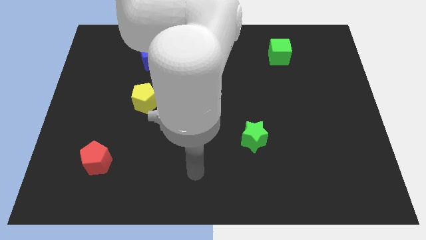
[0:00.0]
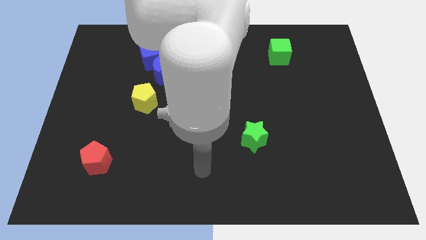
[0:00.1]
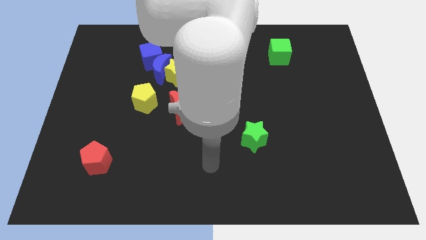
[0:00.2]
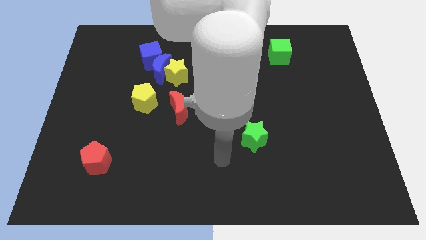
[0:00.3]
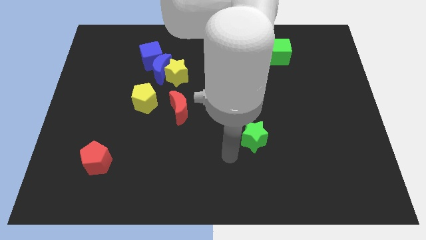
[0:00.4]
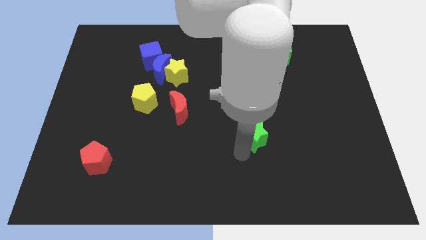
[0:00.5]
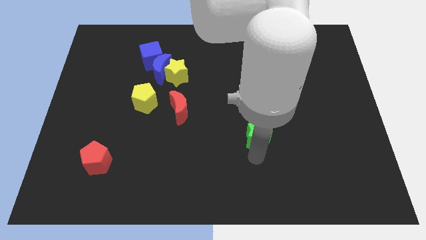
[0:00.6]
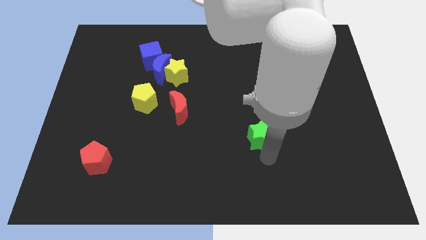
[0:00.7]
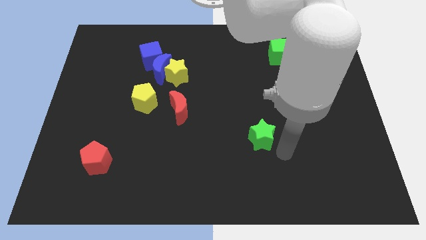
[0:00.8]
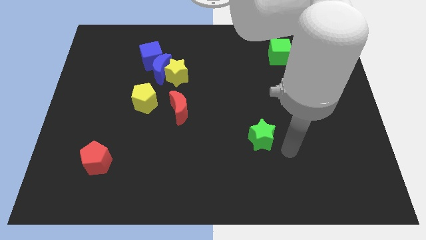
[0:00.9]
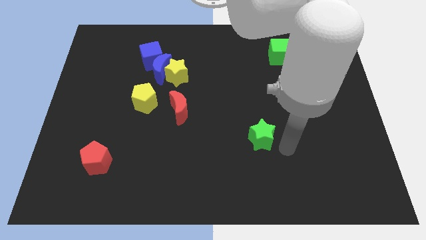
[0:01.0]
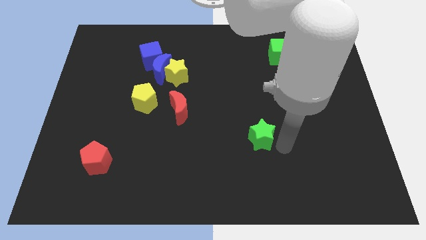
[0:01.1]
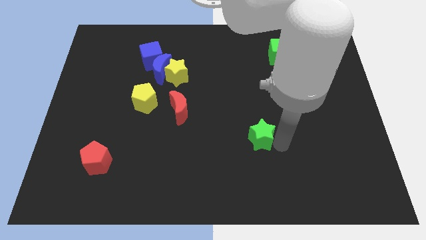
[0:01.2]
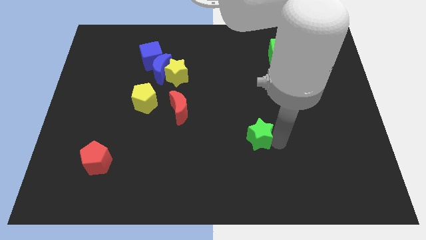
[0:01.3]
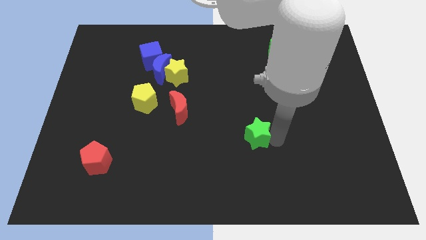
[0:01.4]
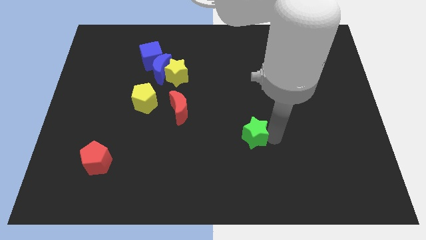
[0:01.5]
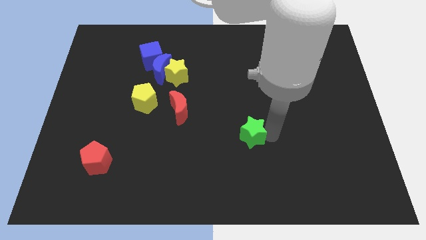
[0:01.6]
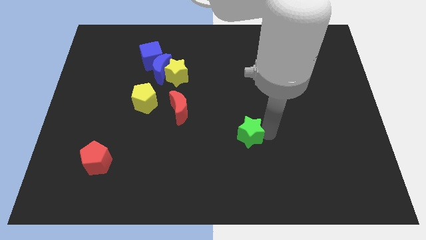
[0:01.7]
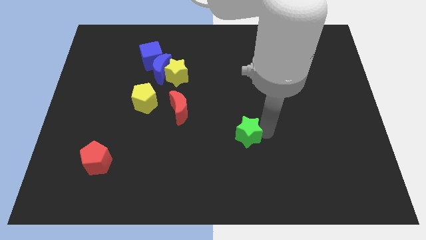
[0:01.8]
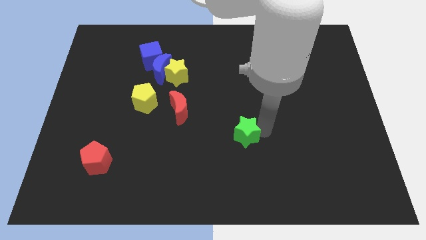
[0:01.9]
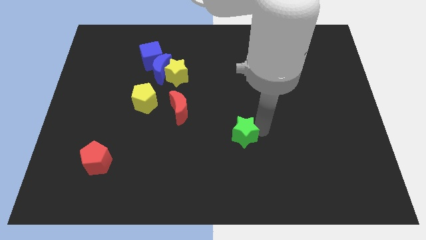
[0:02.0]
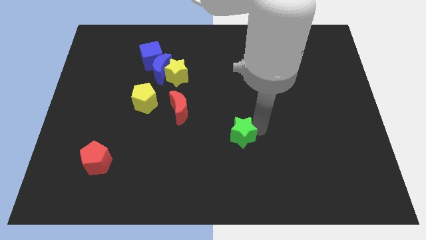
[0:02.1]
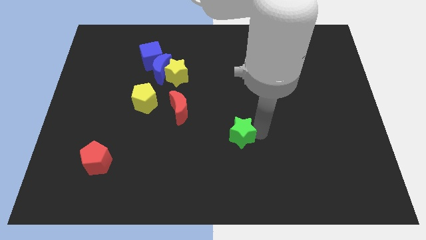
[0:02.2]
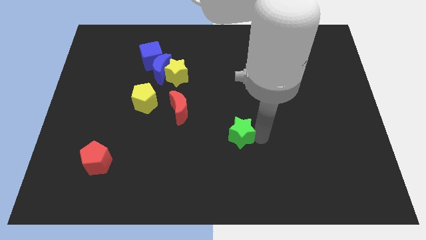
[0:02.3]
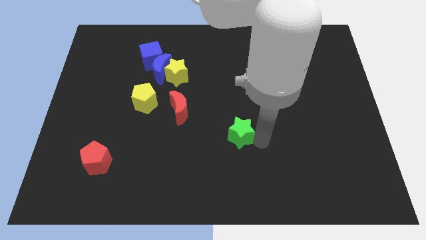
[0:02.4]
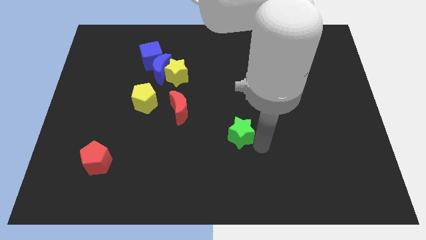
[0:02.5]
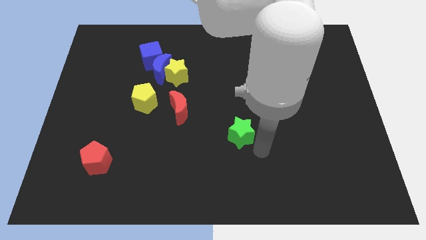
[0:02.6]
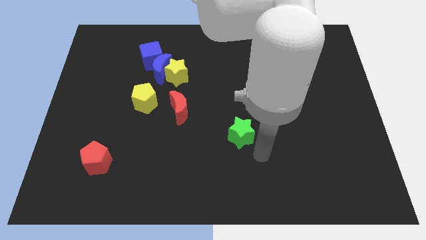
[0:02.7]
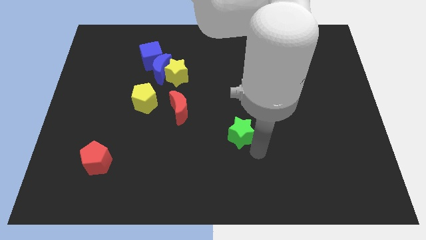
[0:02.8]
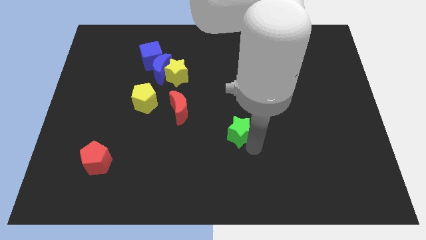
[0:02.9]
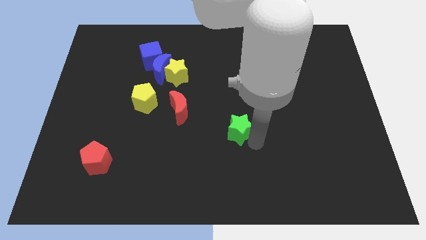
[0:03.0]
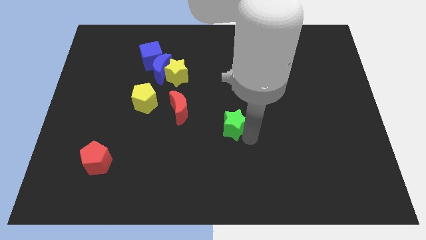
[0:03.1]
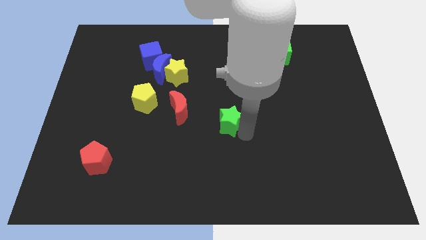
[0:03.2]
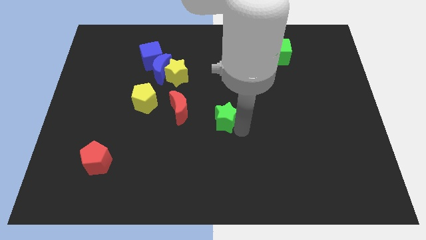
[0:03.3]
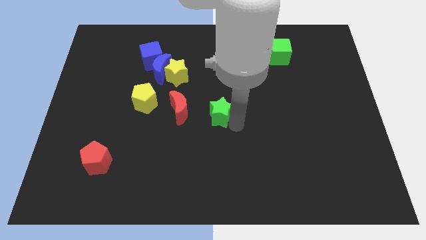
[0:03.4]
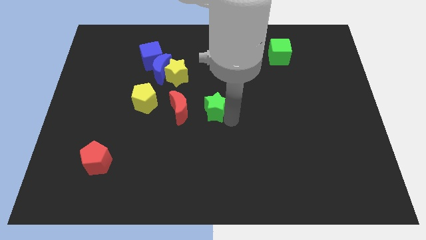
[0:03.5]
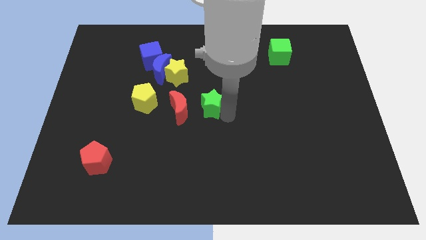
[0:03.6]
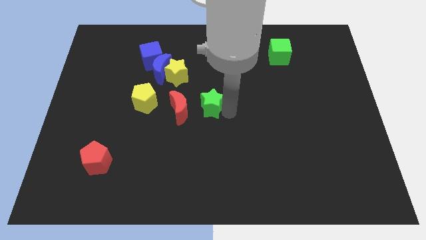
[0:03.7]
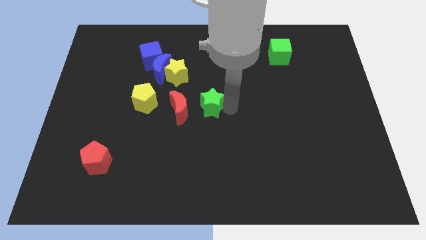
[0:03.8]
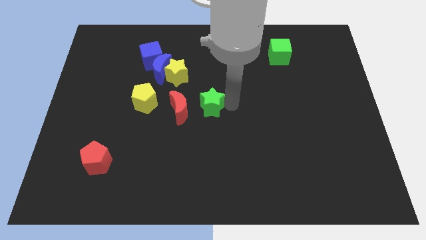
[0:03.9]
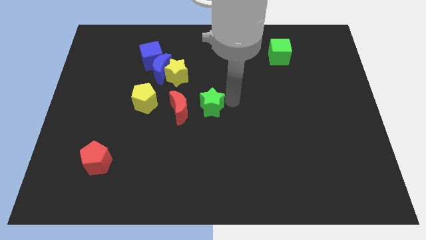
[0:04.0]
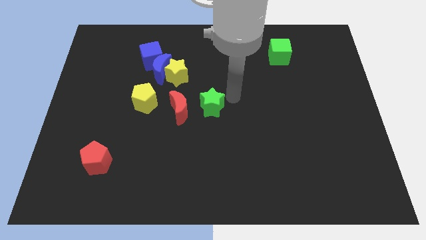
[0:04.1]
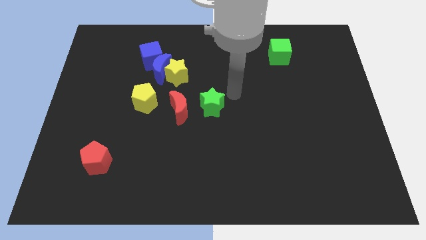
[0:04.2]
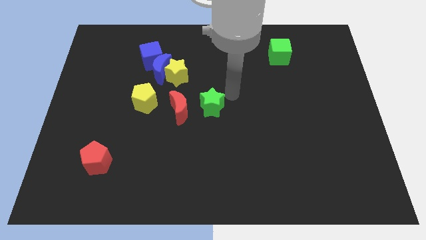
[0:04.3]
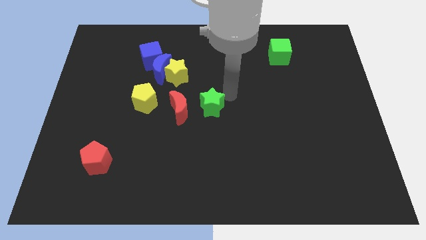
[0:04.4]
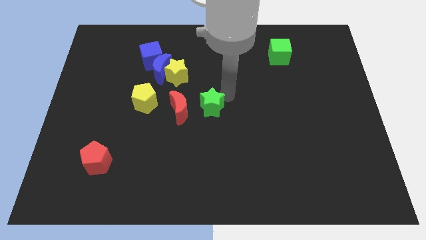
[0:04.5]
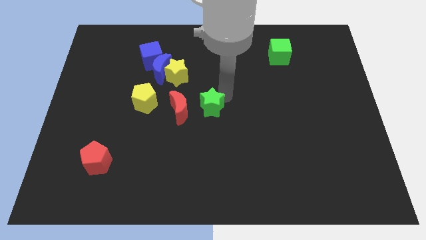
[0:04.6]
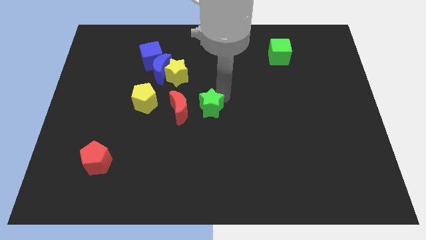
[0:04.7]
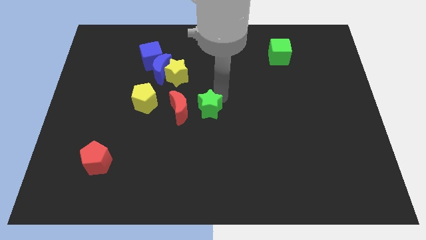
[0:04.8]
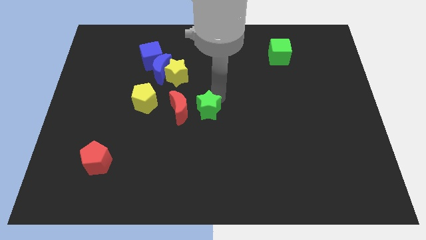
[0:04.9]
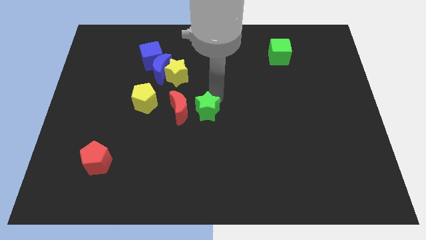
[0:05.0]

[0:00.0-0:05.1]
put the green star next to the red moon

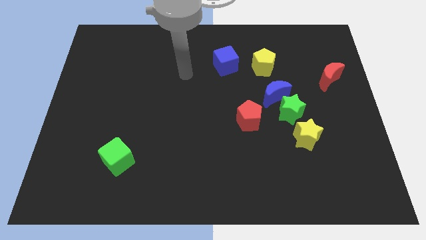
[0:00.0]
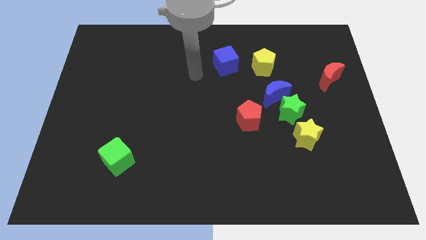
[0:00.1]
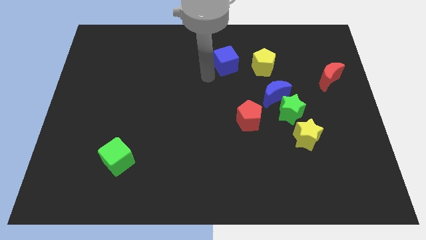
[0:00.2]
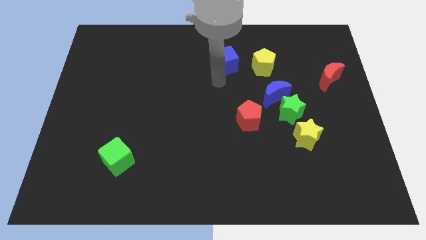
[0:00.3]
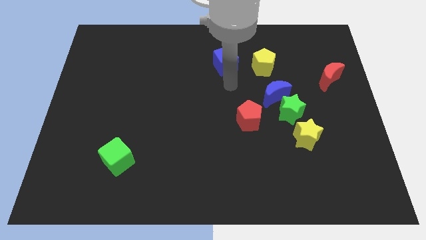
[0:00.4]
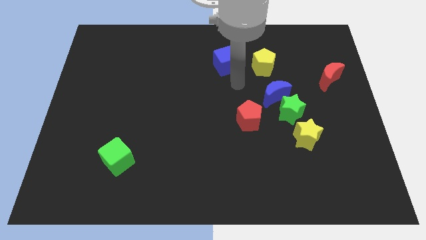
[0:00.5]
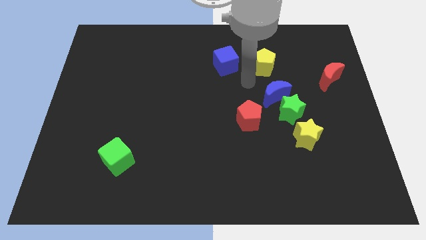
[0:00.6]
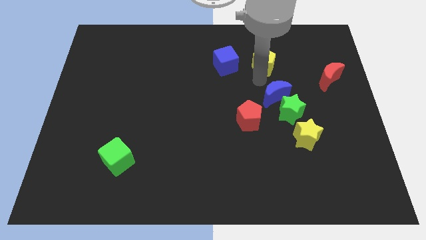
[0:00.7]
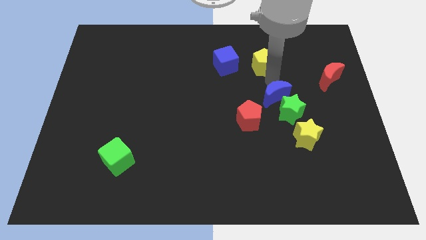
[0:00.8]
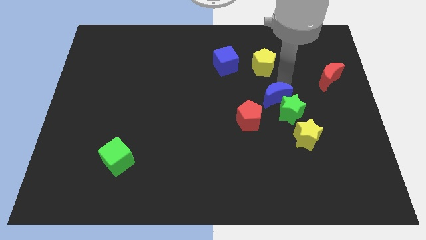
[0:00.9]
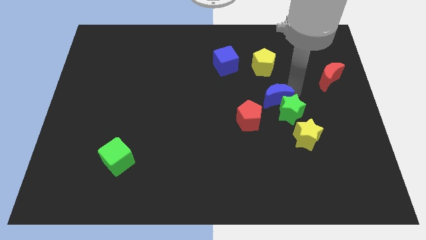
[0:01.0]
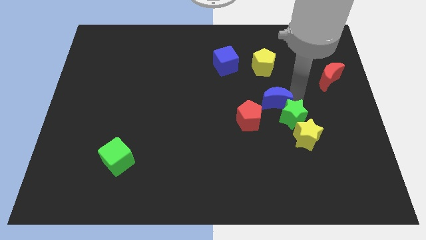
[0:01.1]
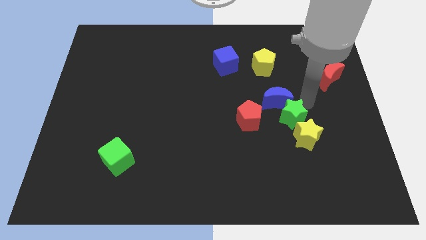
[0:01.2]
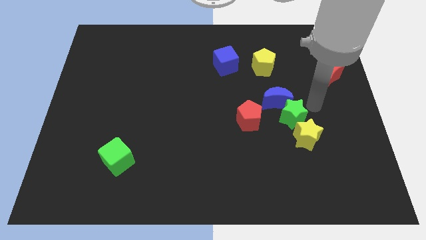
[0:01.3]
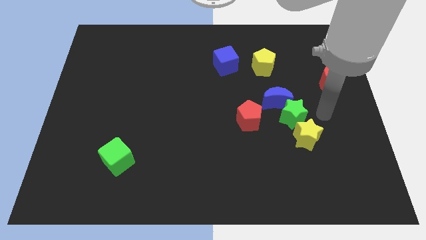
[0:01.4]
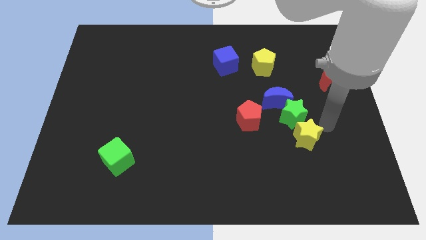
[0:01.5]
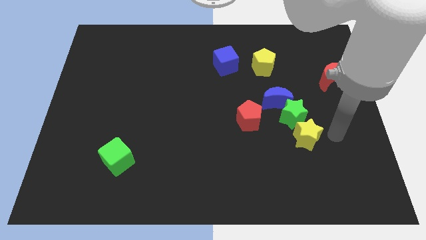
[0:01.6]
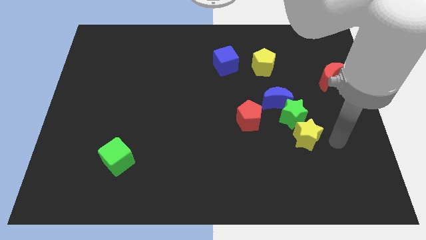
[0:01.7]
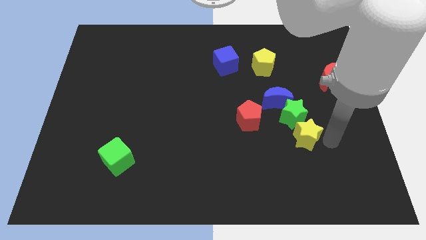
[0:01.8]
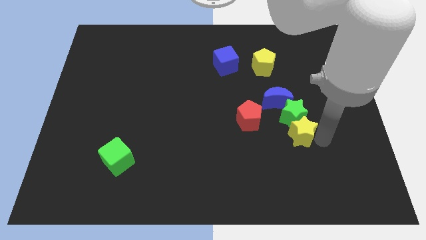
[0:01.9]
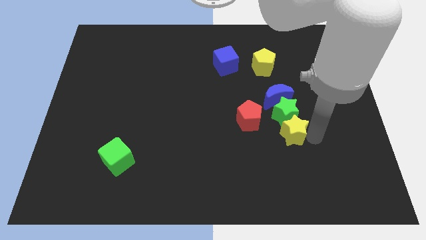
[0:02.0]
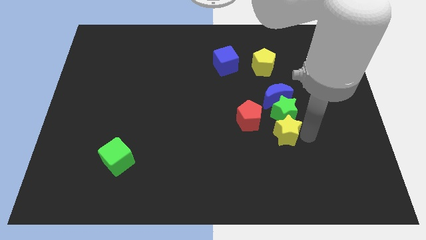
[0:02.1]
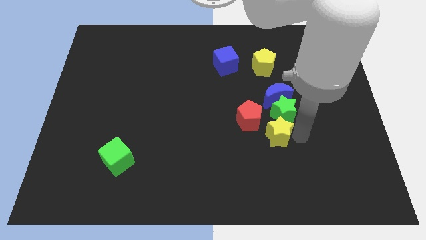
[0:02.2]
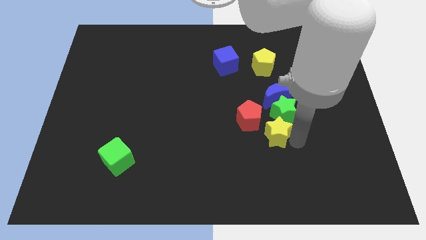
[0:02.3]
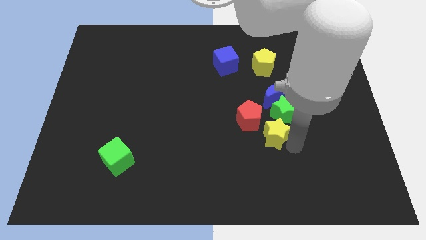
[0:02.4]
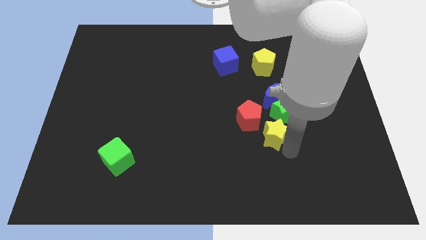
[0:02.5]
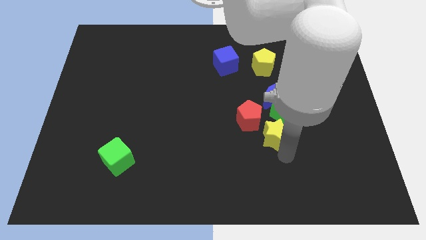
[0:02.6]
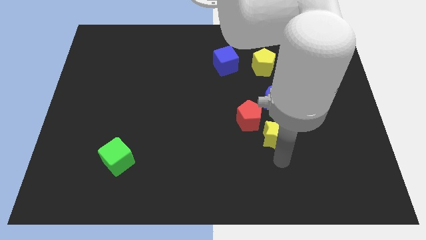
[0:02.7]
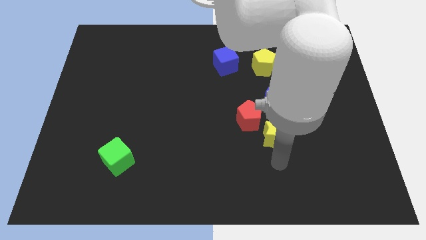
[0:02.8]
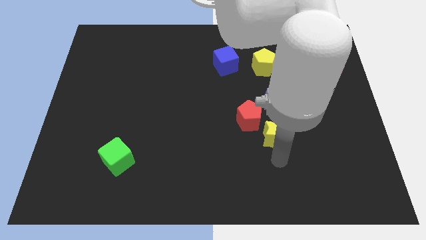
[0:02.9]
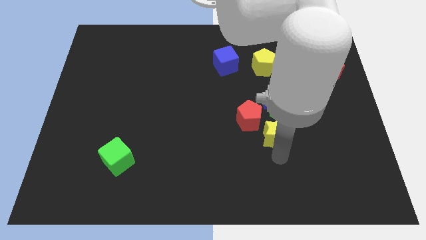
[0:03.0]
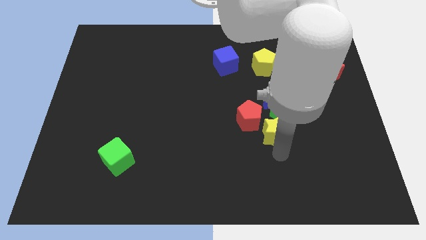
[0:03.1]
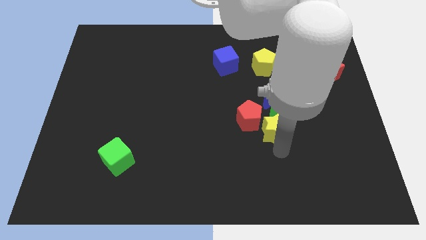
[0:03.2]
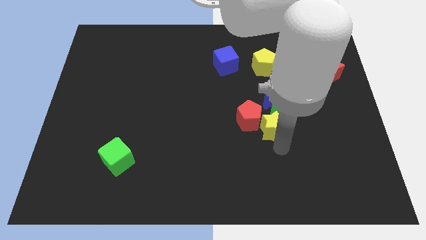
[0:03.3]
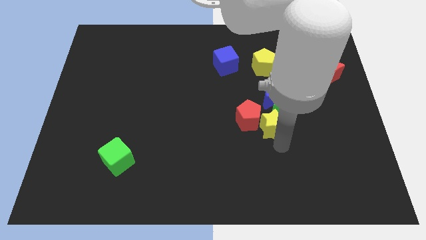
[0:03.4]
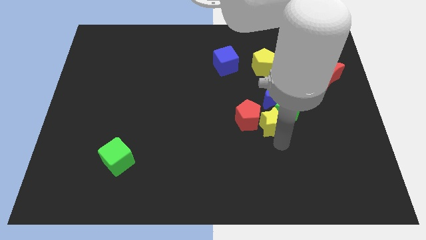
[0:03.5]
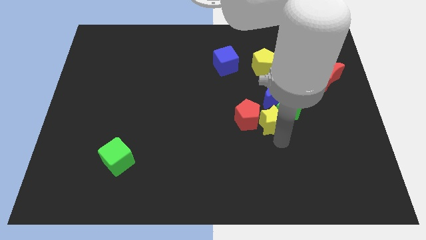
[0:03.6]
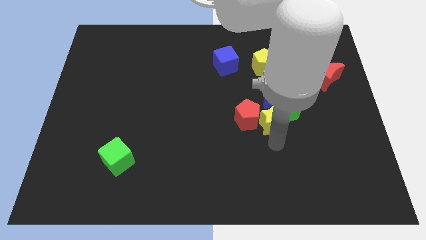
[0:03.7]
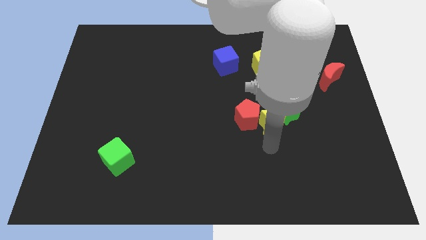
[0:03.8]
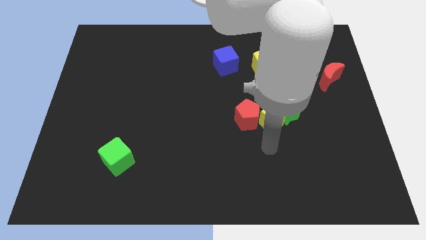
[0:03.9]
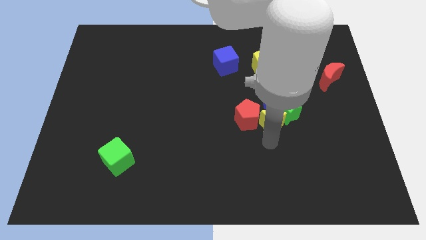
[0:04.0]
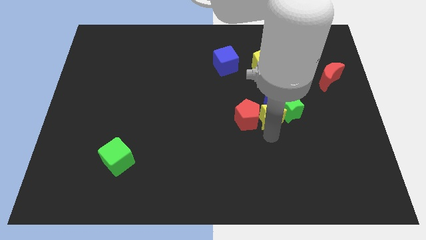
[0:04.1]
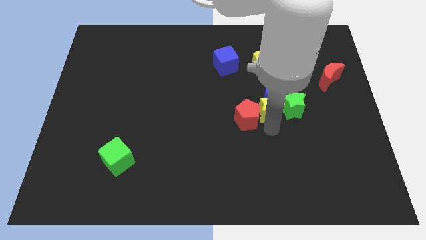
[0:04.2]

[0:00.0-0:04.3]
push the yellow star next to the blue moon
